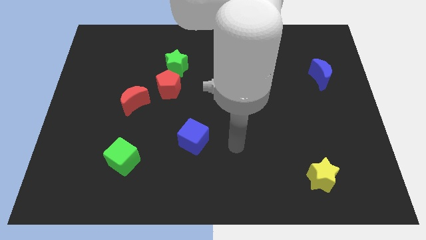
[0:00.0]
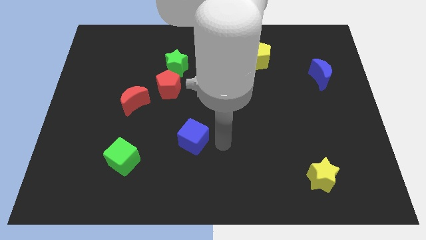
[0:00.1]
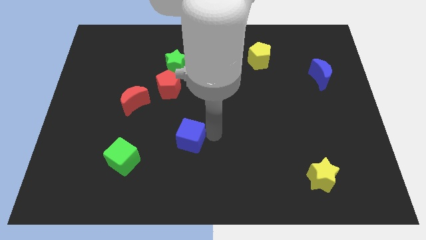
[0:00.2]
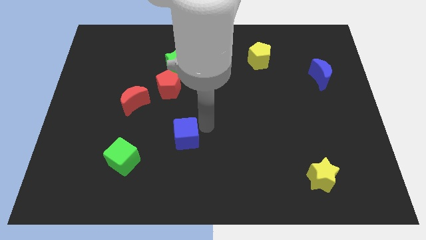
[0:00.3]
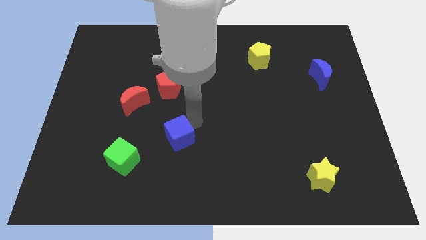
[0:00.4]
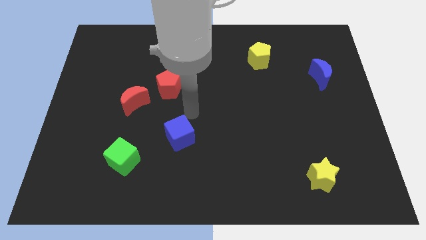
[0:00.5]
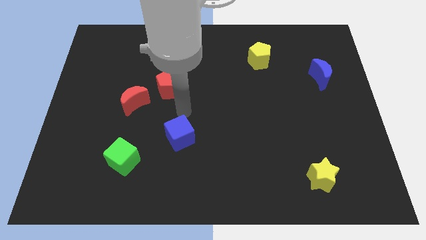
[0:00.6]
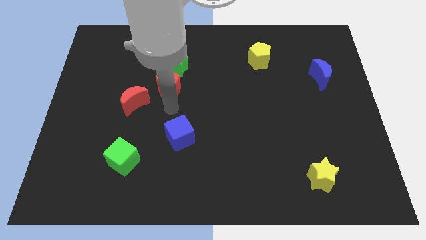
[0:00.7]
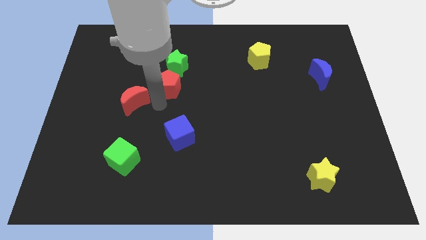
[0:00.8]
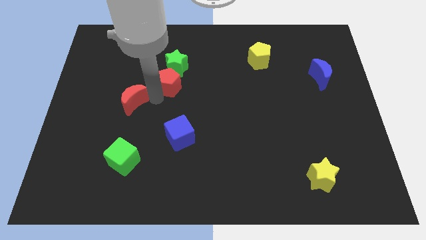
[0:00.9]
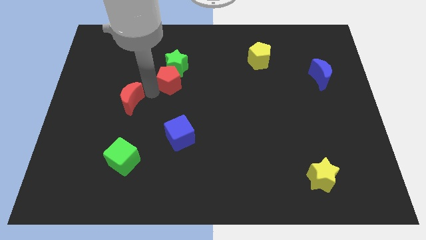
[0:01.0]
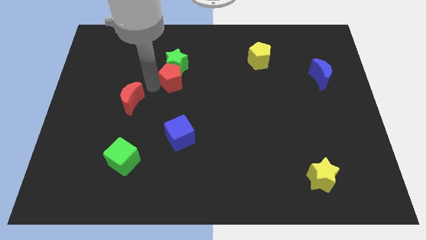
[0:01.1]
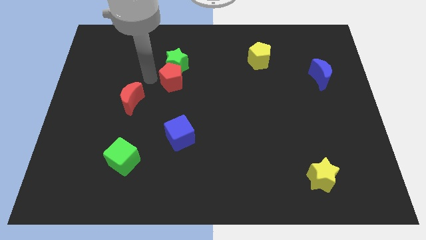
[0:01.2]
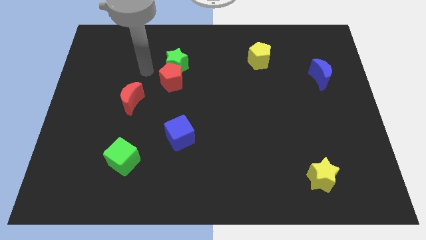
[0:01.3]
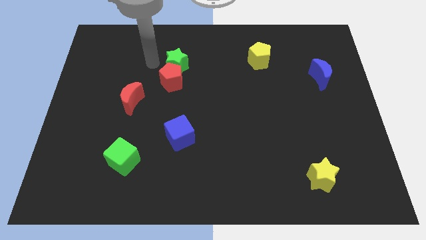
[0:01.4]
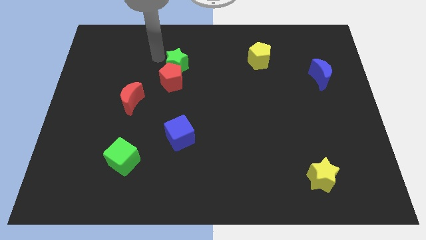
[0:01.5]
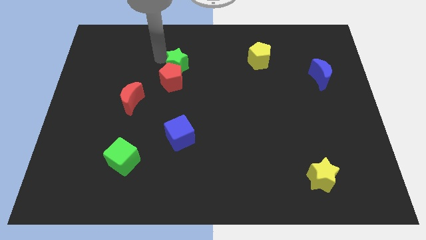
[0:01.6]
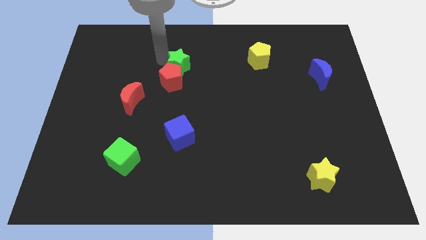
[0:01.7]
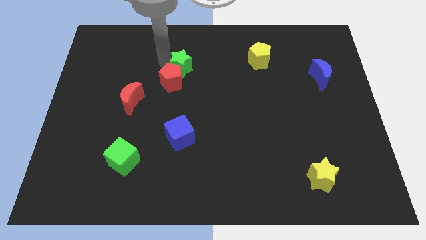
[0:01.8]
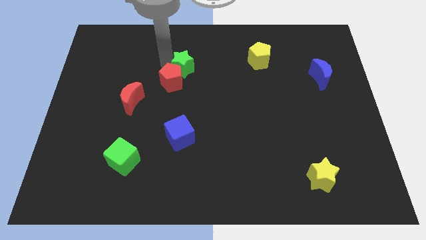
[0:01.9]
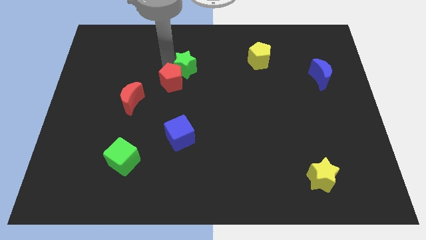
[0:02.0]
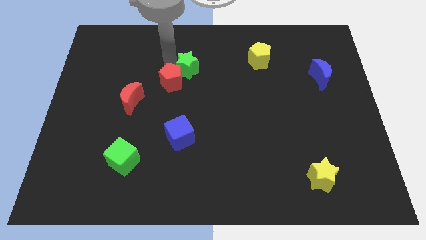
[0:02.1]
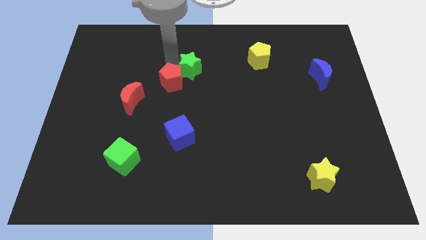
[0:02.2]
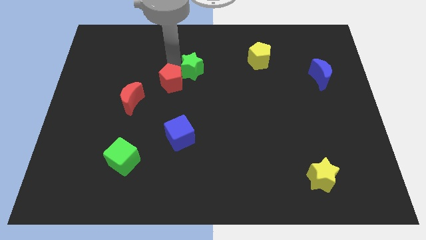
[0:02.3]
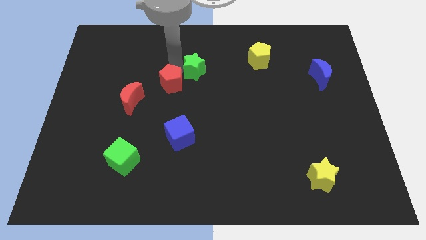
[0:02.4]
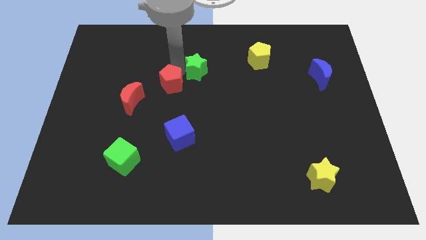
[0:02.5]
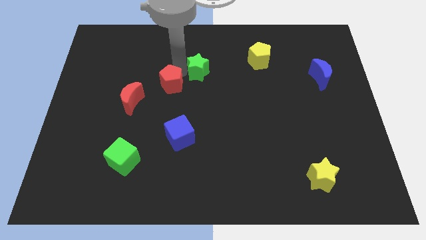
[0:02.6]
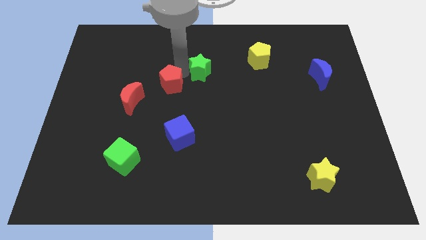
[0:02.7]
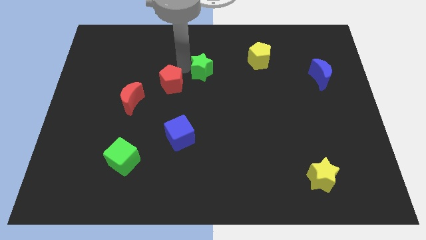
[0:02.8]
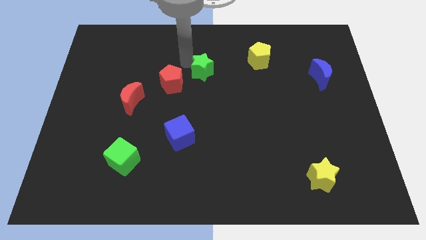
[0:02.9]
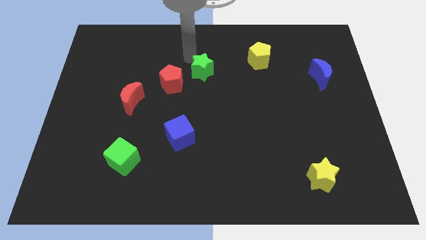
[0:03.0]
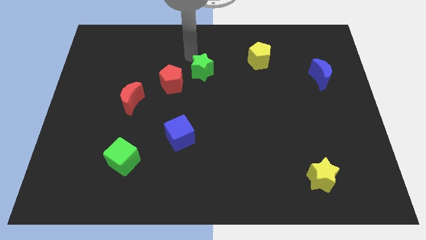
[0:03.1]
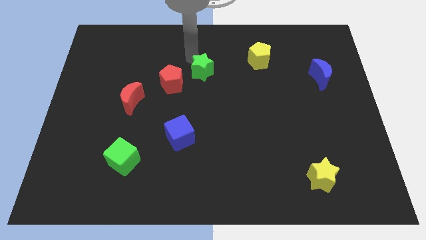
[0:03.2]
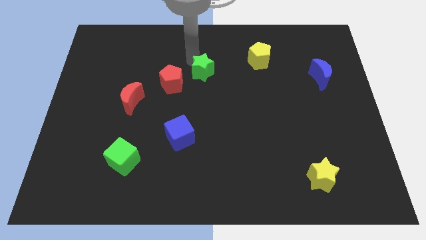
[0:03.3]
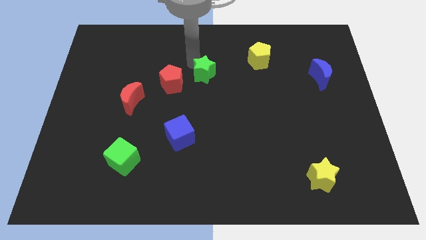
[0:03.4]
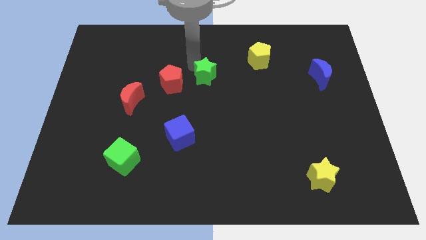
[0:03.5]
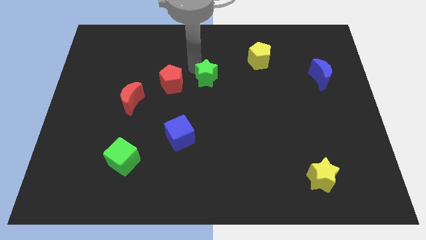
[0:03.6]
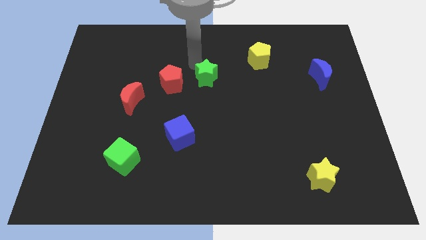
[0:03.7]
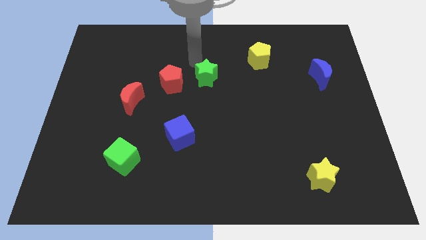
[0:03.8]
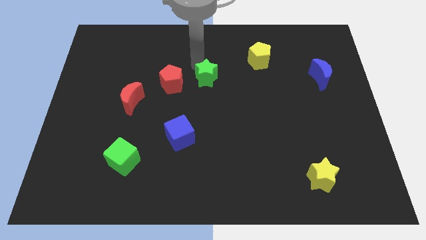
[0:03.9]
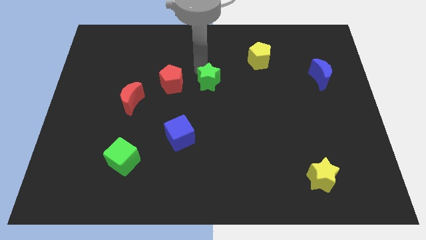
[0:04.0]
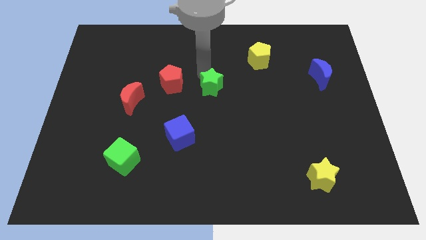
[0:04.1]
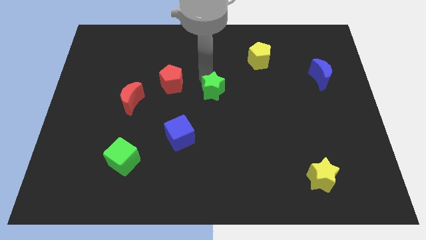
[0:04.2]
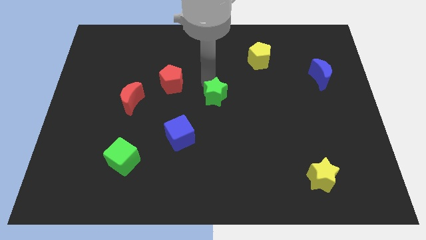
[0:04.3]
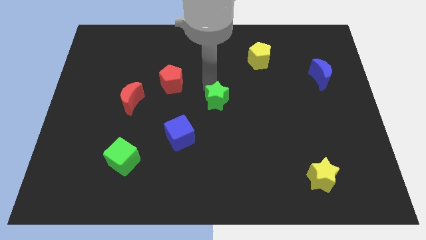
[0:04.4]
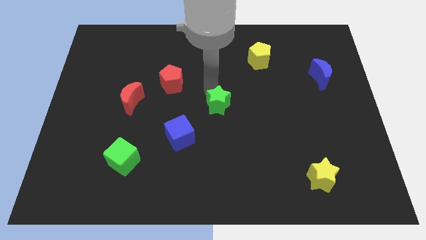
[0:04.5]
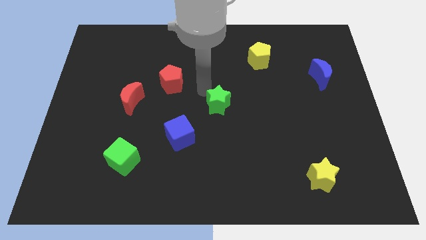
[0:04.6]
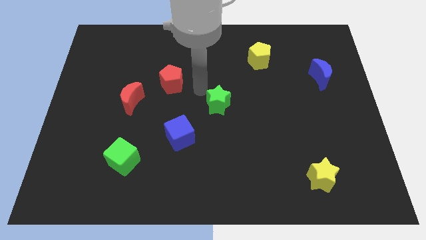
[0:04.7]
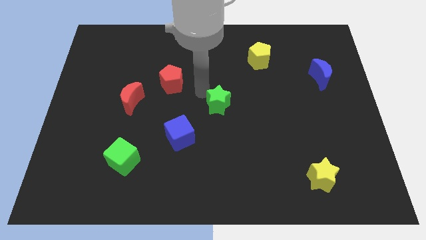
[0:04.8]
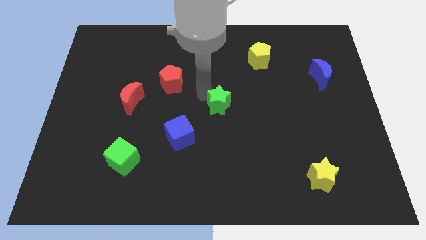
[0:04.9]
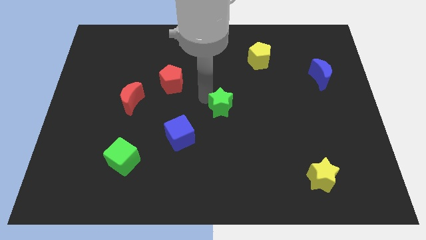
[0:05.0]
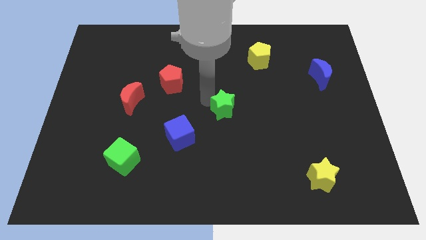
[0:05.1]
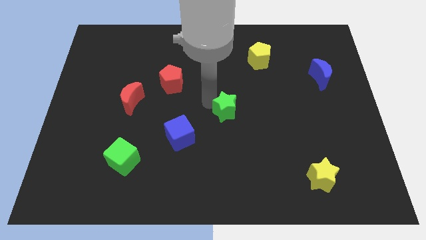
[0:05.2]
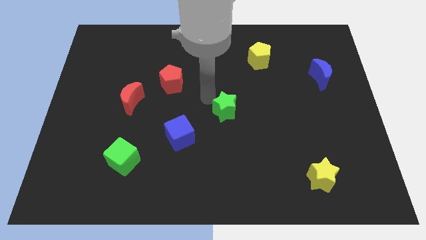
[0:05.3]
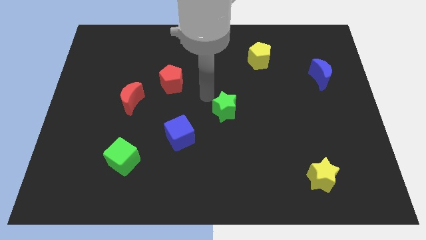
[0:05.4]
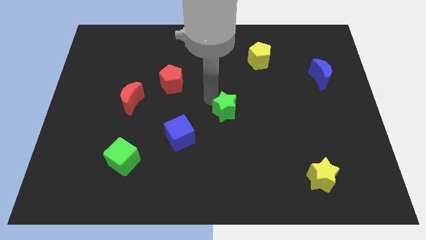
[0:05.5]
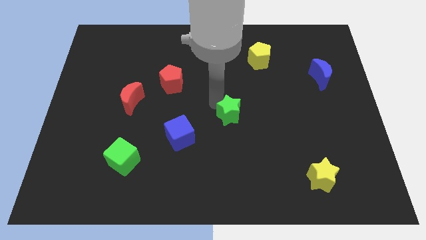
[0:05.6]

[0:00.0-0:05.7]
push the green star downwards and right diagonally

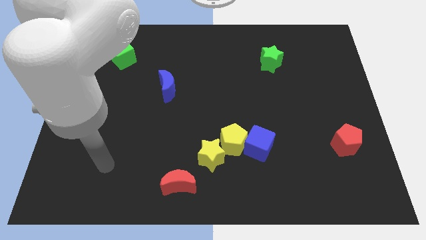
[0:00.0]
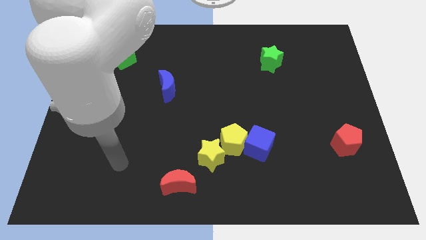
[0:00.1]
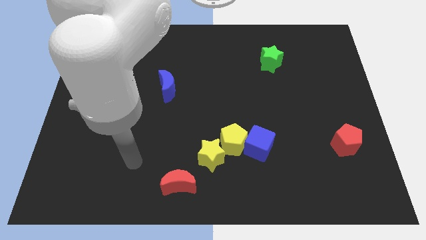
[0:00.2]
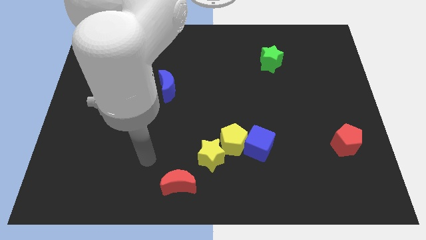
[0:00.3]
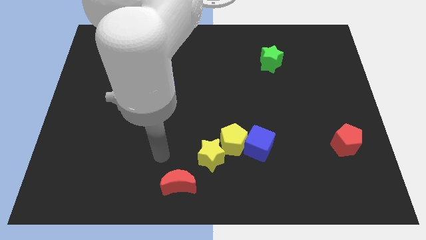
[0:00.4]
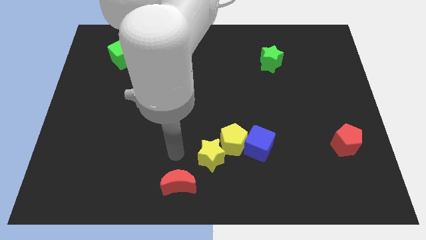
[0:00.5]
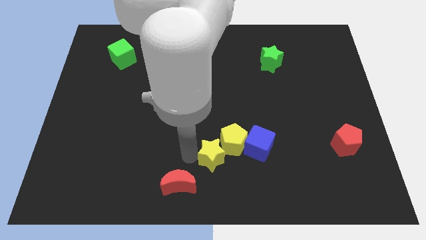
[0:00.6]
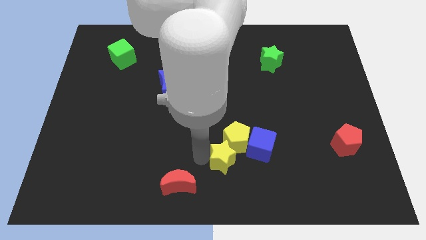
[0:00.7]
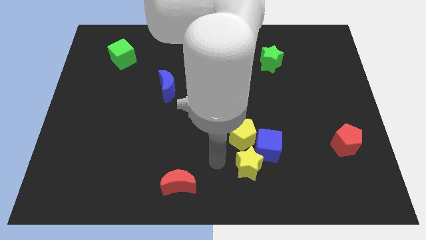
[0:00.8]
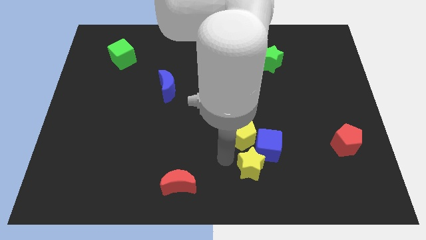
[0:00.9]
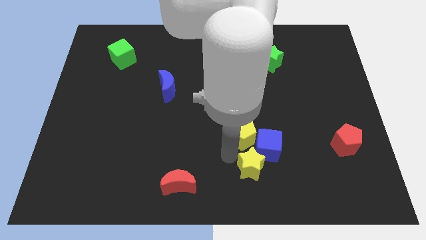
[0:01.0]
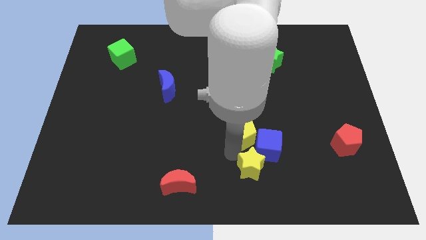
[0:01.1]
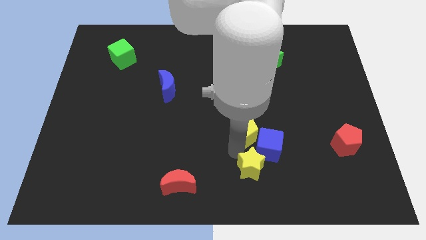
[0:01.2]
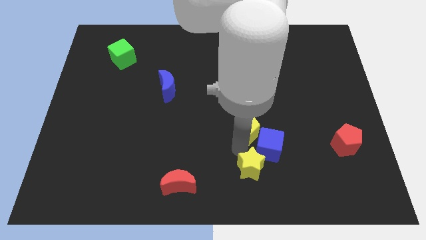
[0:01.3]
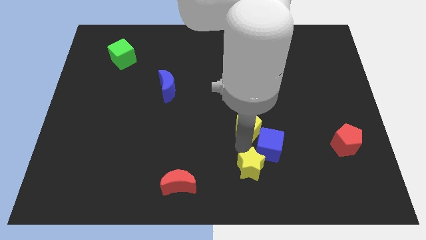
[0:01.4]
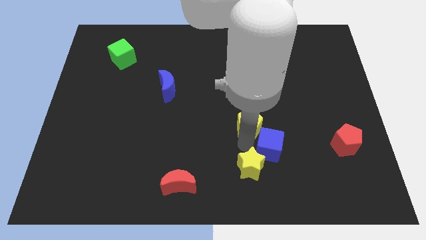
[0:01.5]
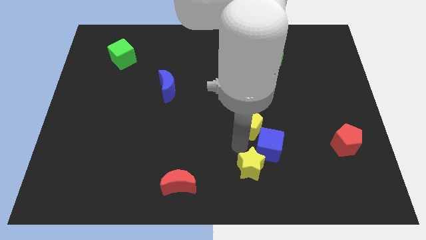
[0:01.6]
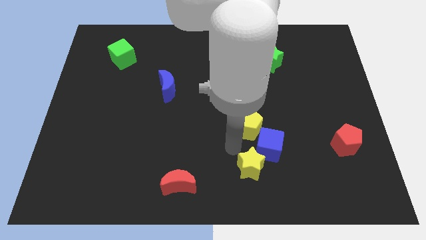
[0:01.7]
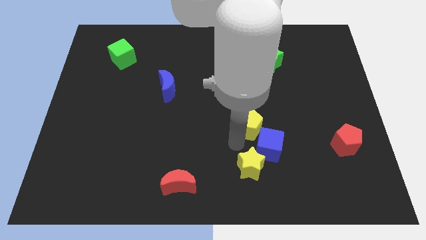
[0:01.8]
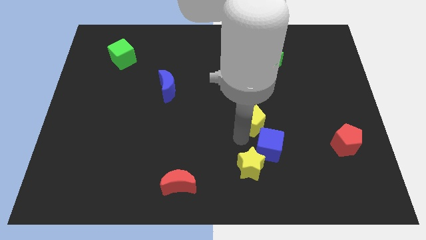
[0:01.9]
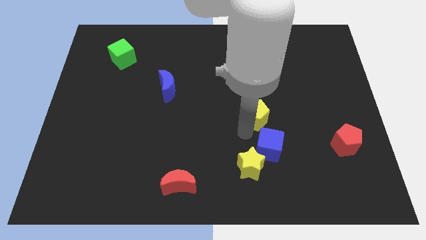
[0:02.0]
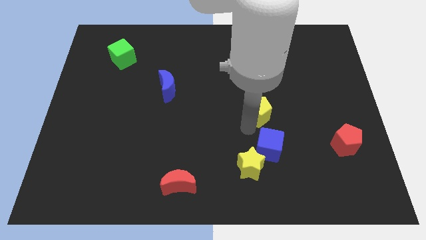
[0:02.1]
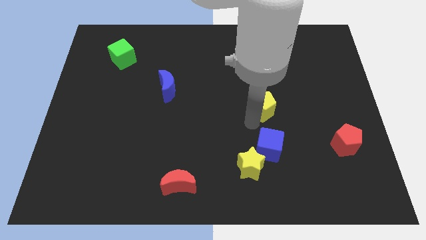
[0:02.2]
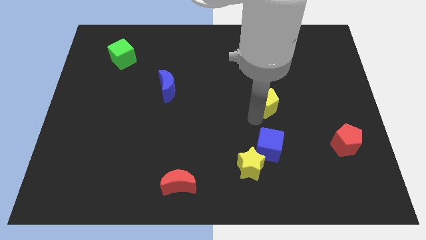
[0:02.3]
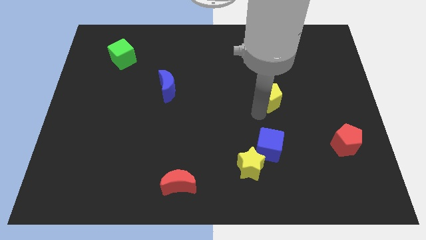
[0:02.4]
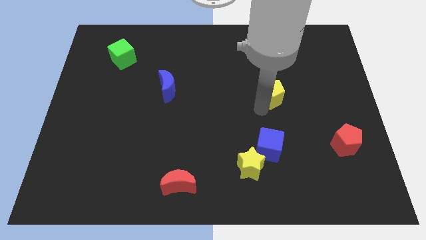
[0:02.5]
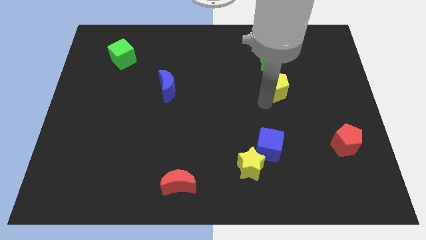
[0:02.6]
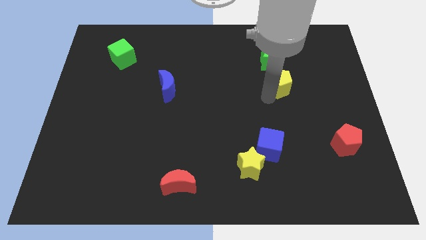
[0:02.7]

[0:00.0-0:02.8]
slide the yellow pentagon diagonally upwards and to the right
